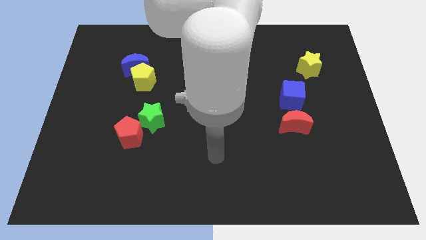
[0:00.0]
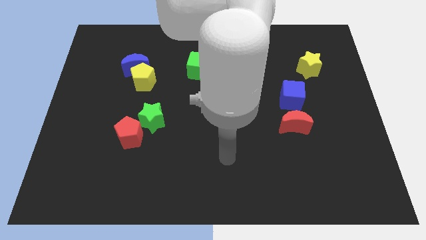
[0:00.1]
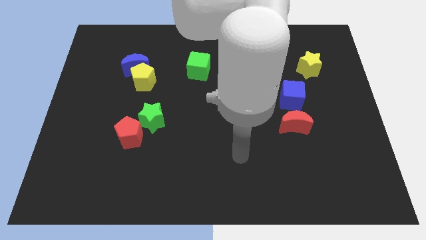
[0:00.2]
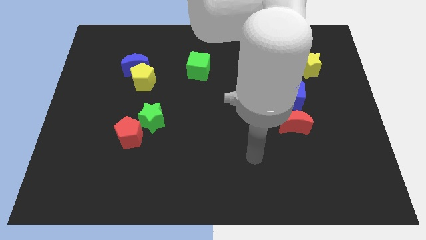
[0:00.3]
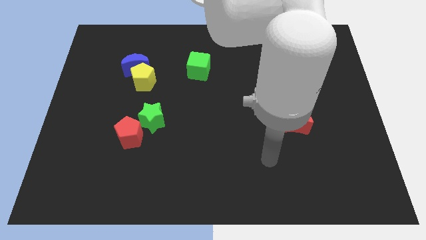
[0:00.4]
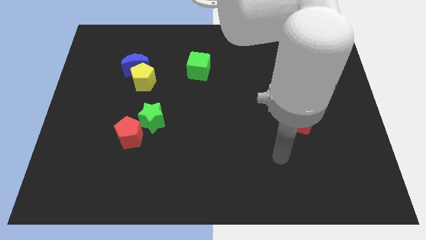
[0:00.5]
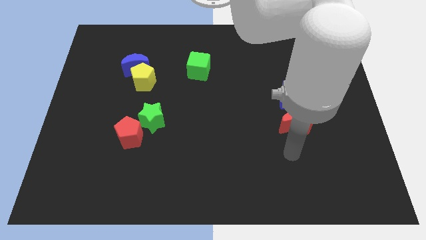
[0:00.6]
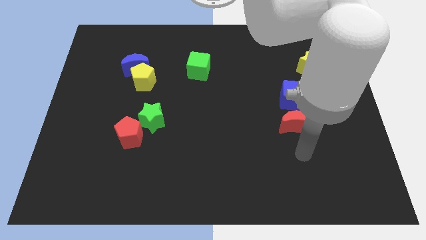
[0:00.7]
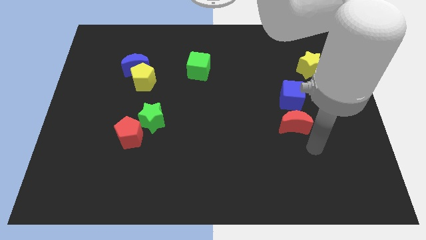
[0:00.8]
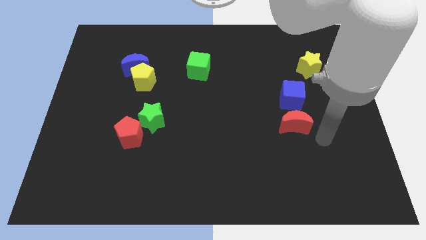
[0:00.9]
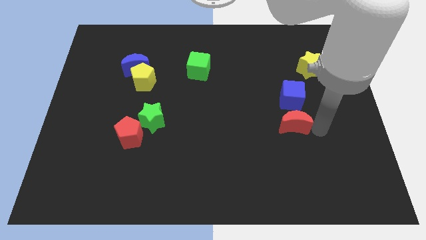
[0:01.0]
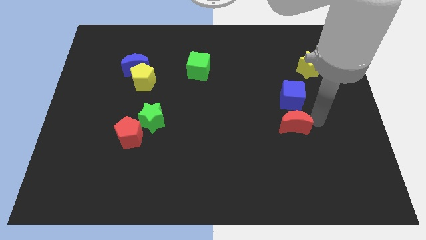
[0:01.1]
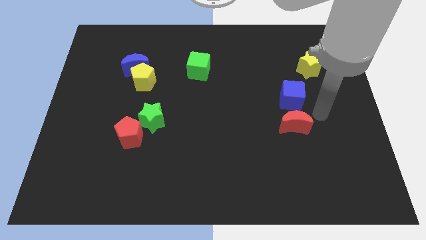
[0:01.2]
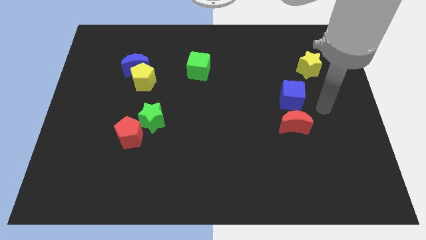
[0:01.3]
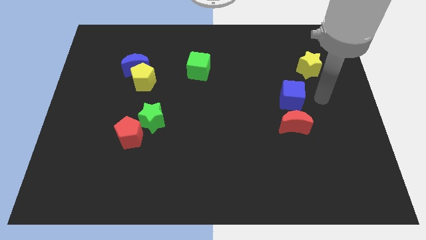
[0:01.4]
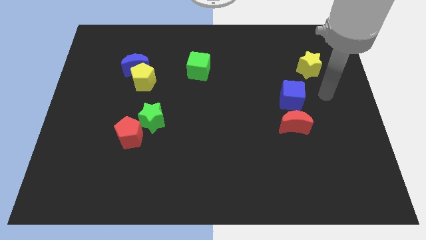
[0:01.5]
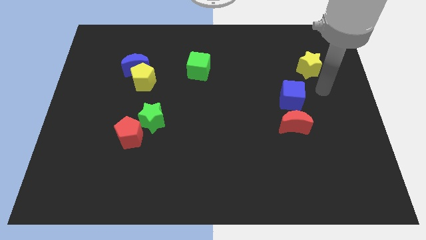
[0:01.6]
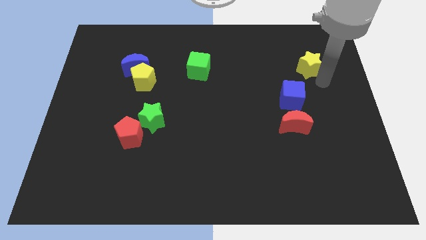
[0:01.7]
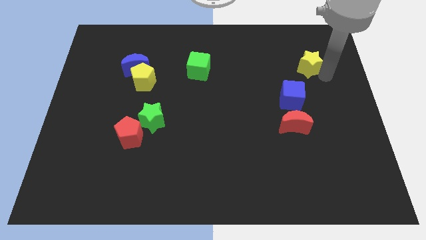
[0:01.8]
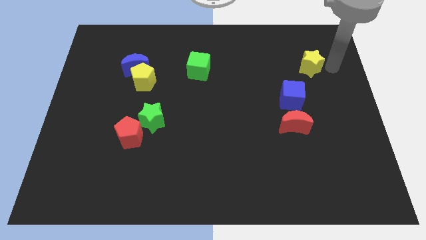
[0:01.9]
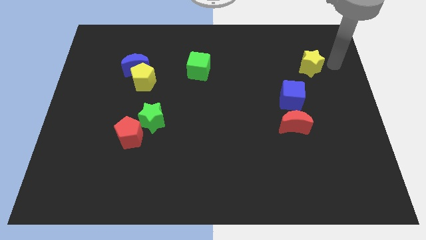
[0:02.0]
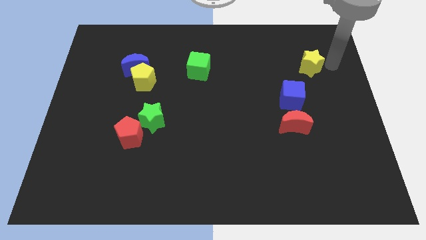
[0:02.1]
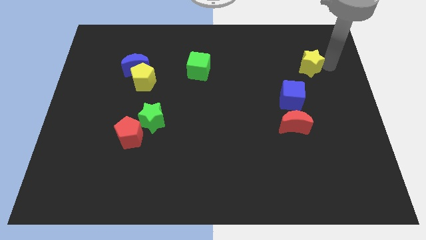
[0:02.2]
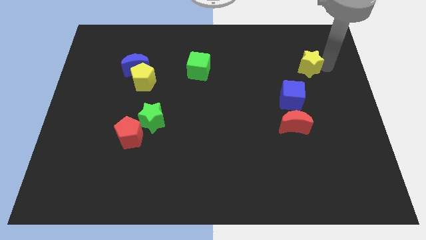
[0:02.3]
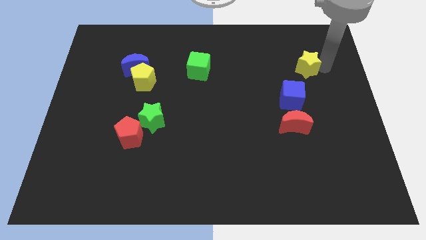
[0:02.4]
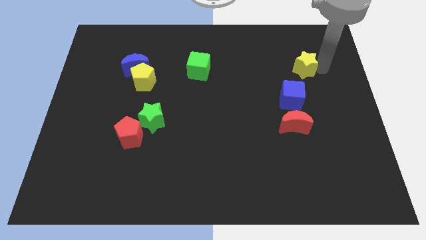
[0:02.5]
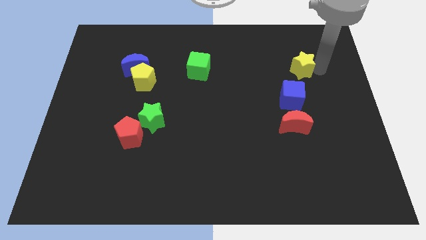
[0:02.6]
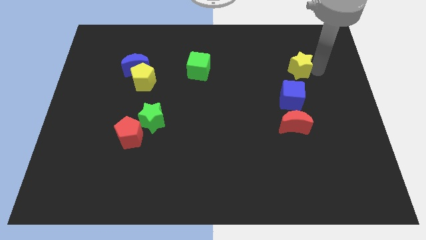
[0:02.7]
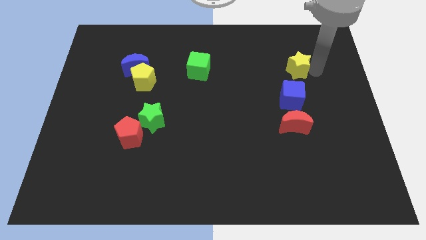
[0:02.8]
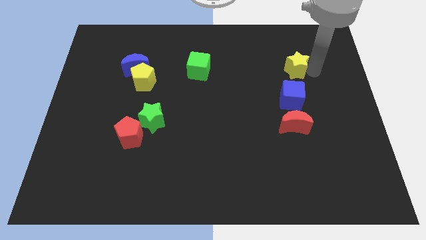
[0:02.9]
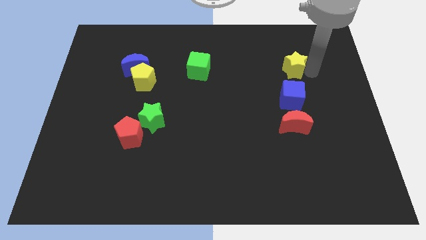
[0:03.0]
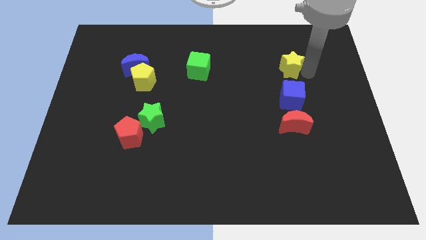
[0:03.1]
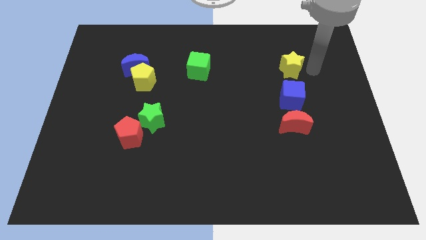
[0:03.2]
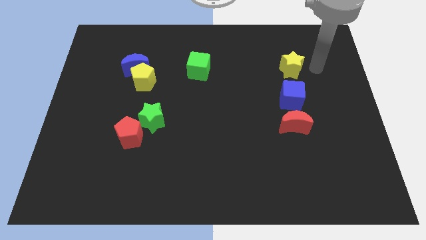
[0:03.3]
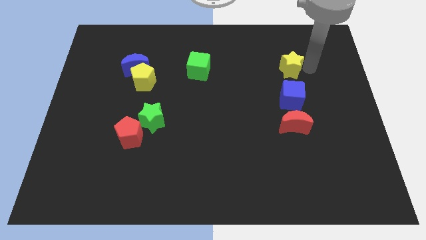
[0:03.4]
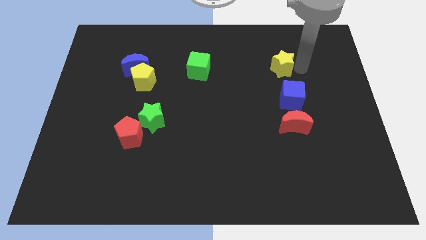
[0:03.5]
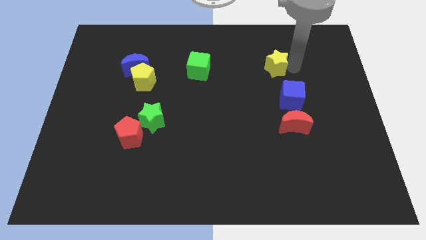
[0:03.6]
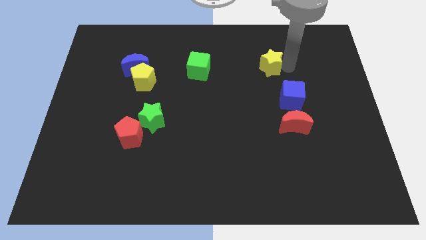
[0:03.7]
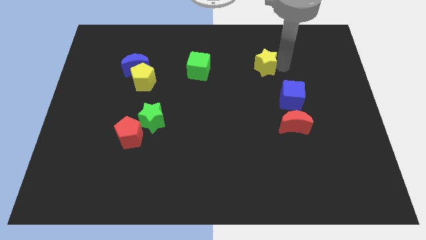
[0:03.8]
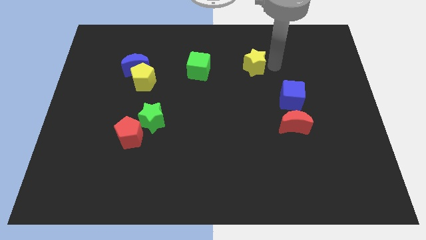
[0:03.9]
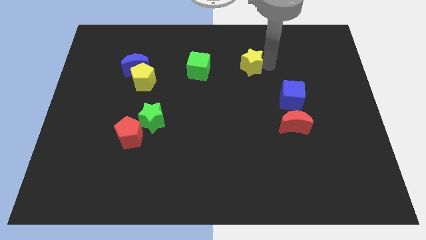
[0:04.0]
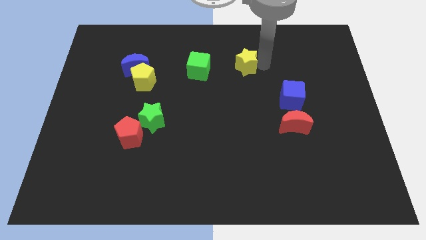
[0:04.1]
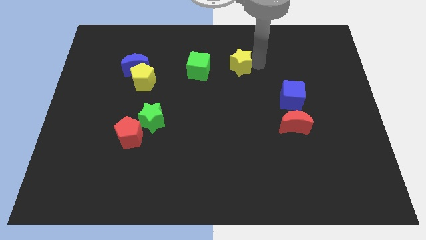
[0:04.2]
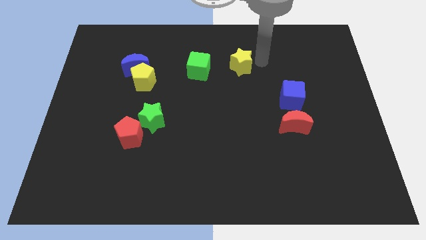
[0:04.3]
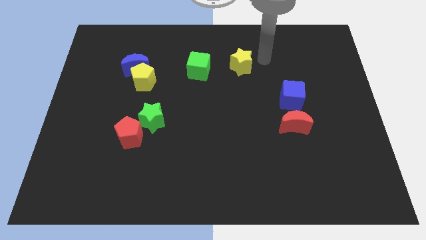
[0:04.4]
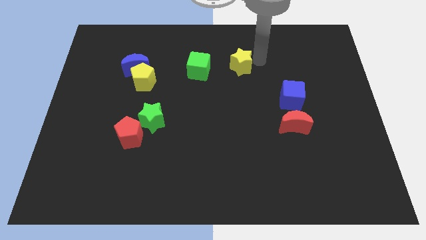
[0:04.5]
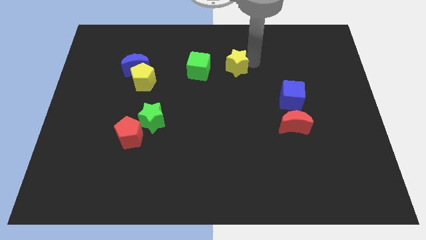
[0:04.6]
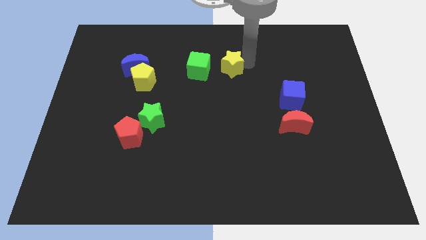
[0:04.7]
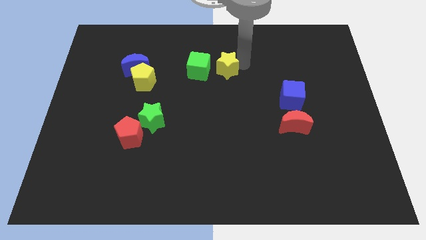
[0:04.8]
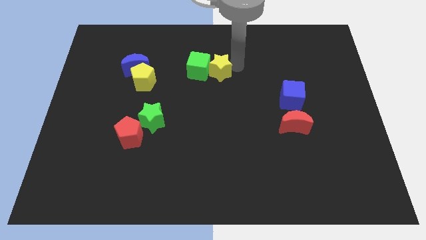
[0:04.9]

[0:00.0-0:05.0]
move the yellow star close to the green cube

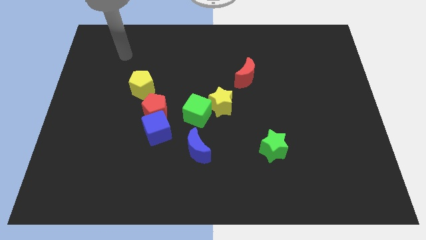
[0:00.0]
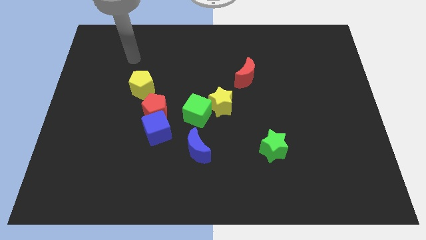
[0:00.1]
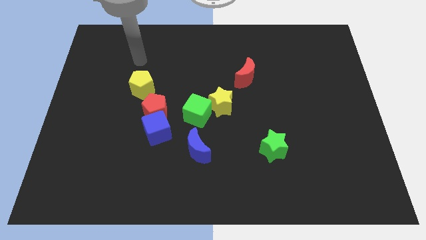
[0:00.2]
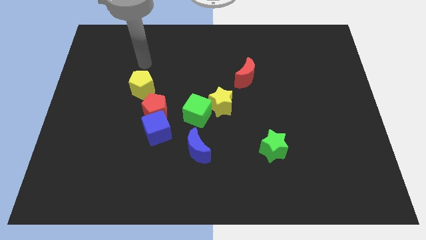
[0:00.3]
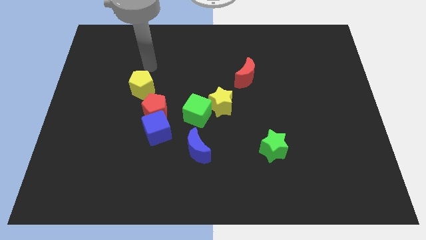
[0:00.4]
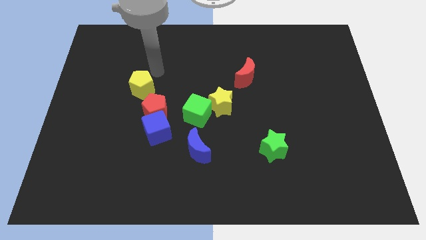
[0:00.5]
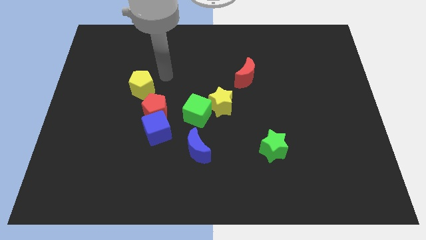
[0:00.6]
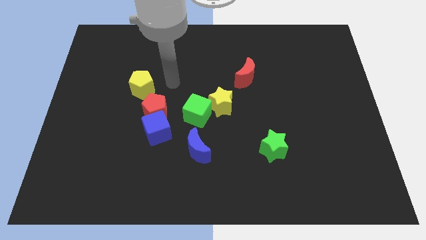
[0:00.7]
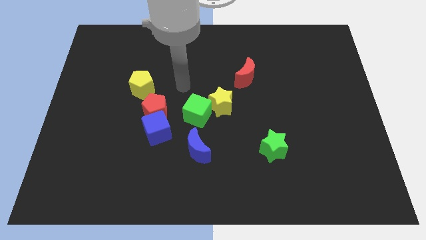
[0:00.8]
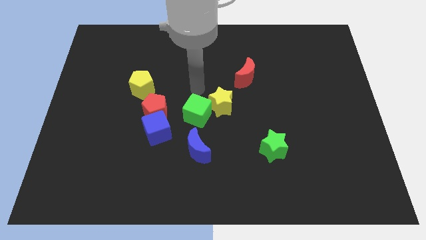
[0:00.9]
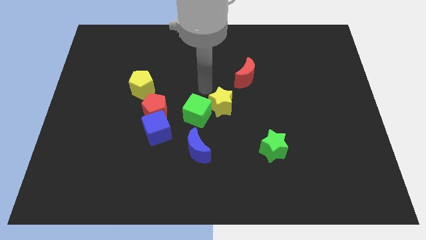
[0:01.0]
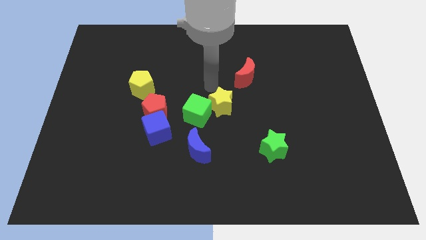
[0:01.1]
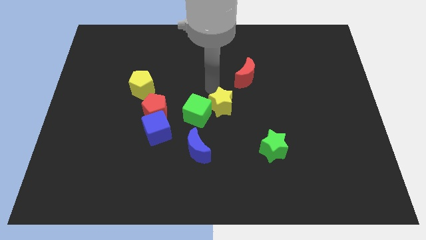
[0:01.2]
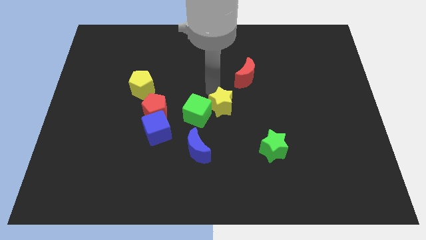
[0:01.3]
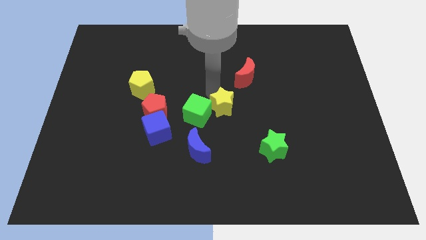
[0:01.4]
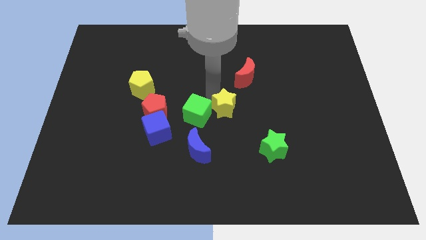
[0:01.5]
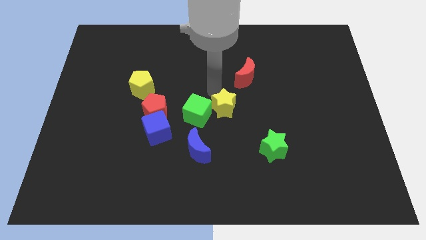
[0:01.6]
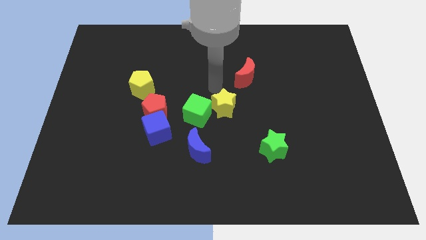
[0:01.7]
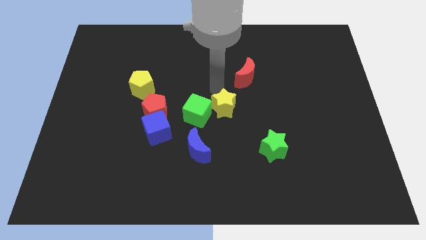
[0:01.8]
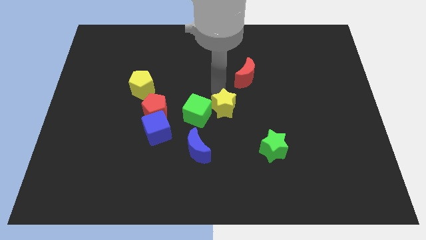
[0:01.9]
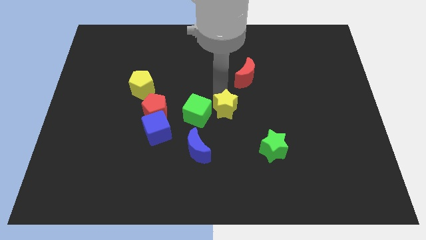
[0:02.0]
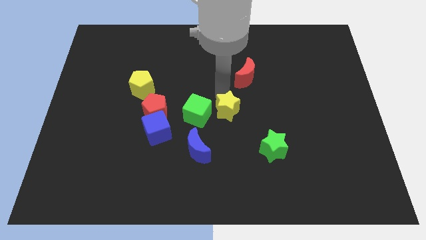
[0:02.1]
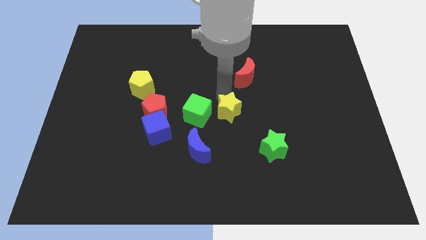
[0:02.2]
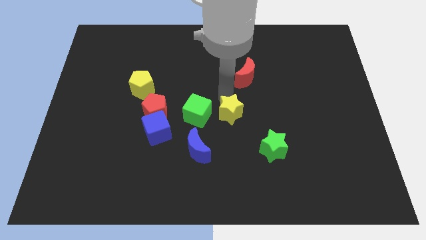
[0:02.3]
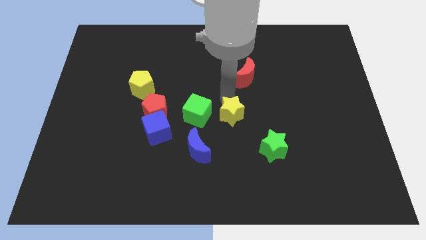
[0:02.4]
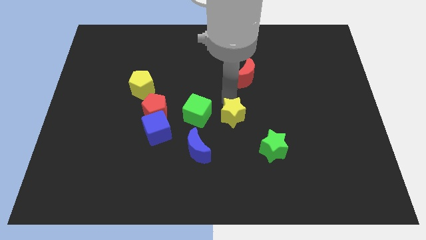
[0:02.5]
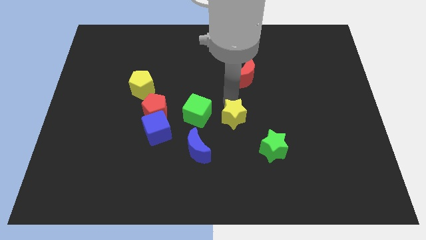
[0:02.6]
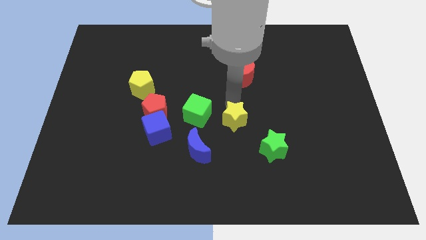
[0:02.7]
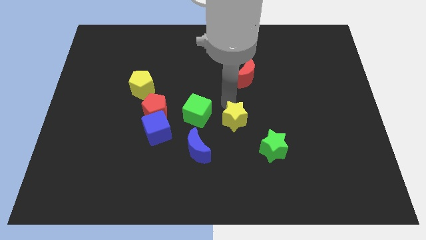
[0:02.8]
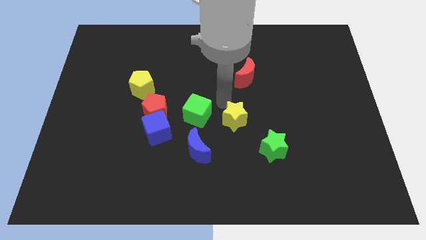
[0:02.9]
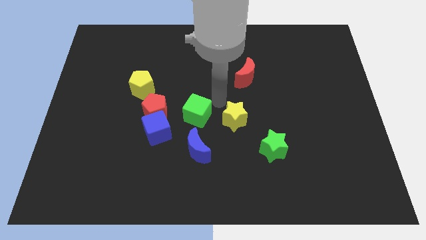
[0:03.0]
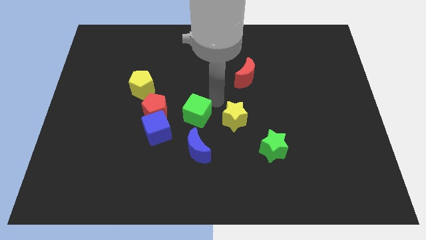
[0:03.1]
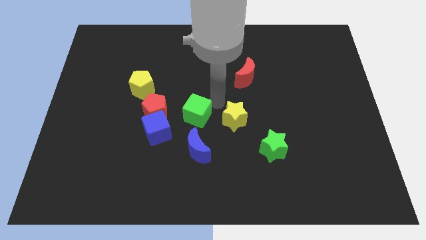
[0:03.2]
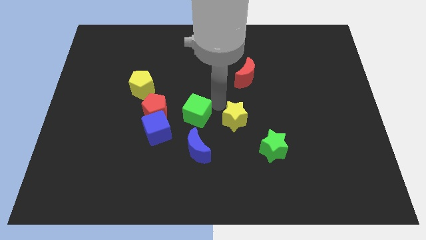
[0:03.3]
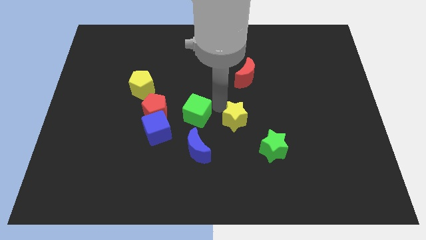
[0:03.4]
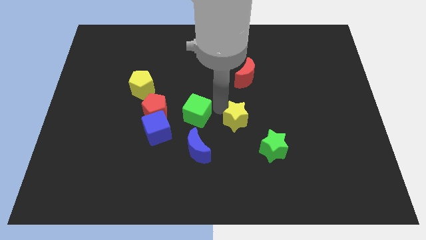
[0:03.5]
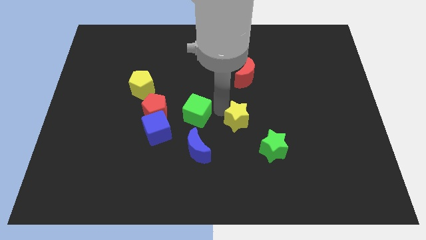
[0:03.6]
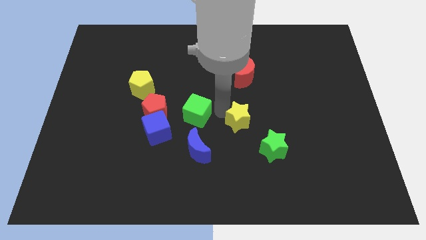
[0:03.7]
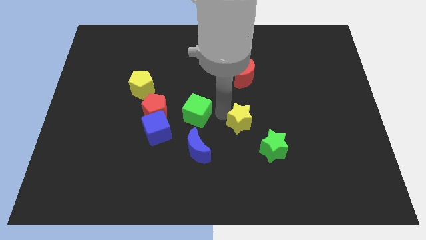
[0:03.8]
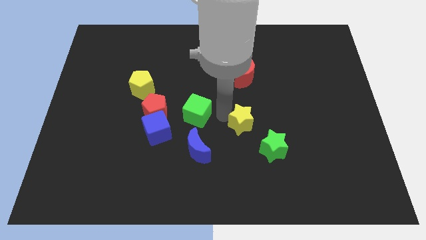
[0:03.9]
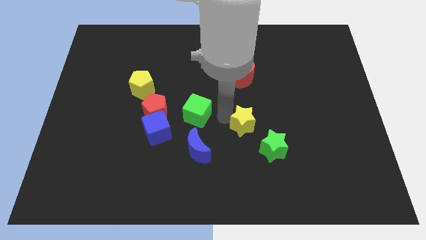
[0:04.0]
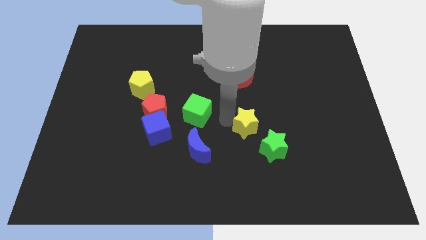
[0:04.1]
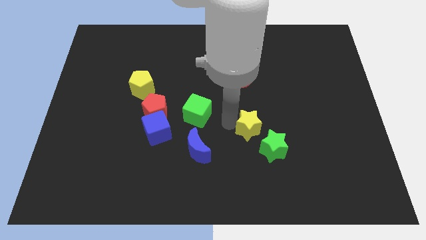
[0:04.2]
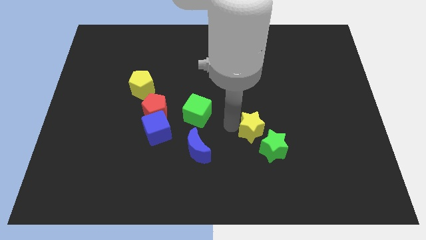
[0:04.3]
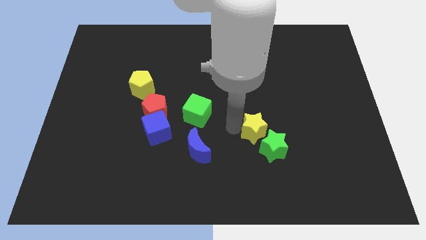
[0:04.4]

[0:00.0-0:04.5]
push the yellow star close to the green star
